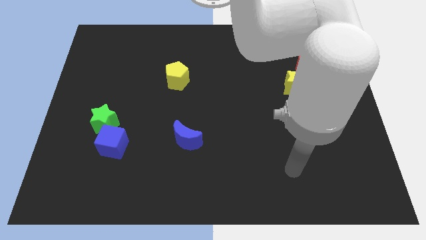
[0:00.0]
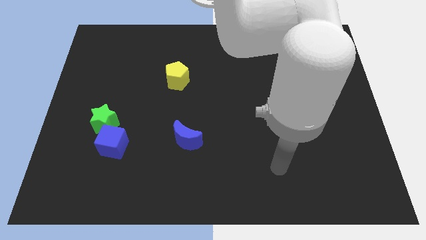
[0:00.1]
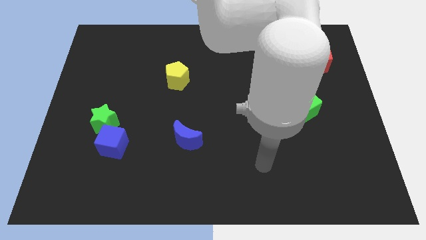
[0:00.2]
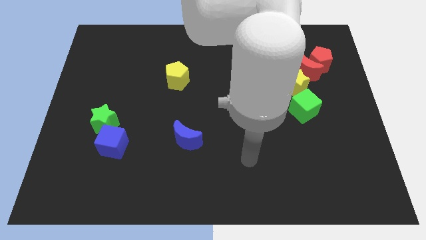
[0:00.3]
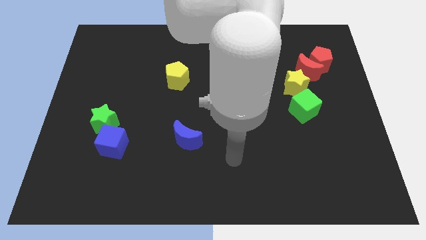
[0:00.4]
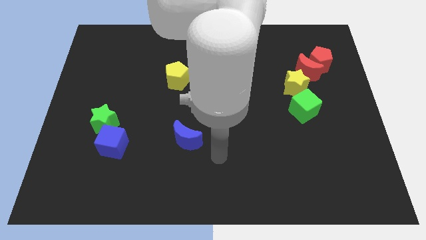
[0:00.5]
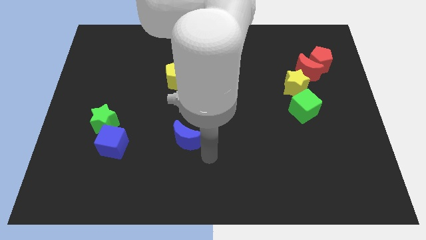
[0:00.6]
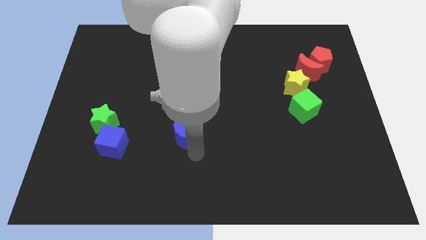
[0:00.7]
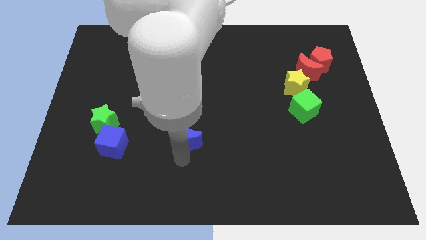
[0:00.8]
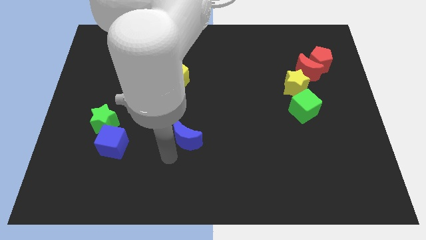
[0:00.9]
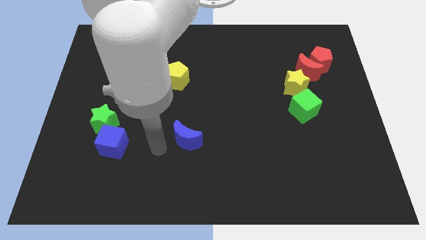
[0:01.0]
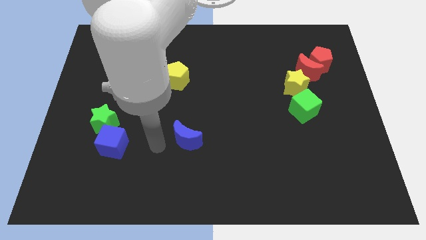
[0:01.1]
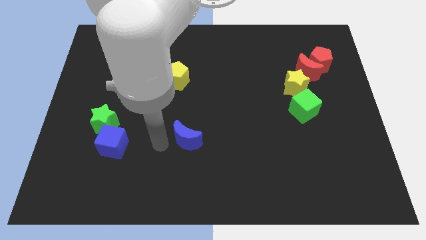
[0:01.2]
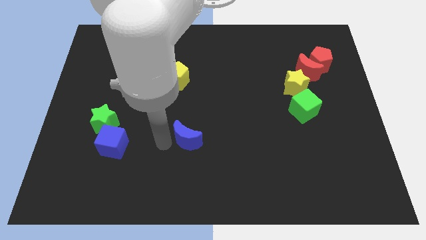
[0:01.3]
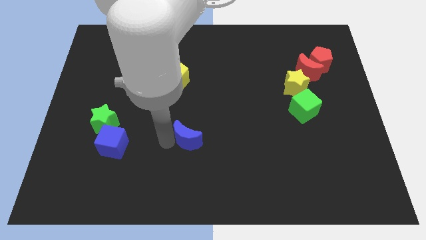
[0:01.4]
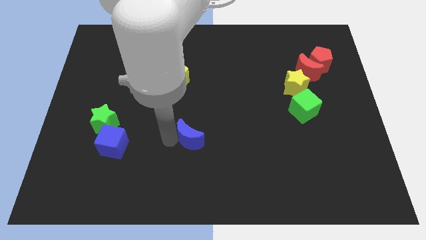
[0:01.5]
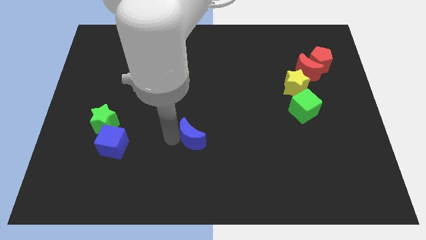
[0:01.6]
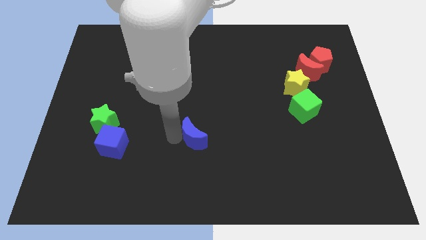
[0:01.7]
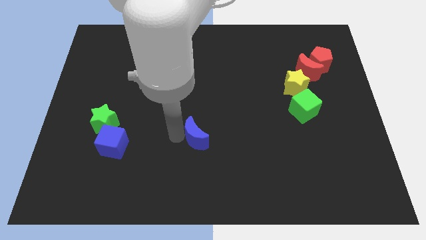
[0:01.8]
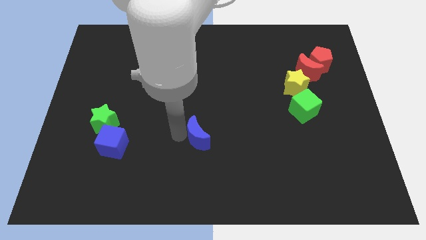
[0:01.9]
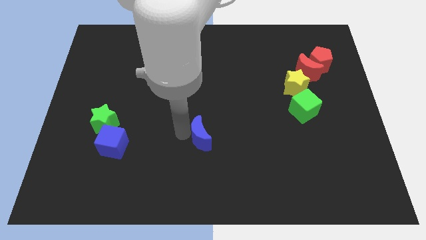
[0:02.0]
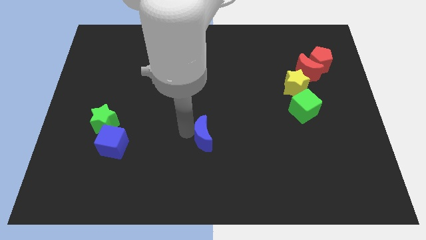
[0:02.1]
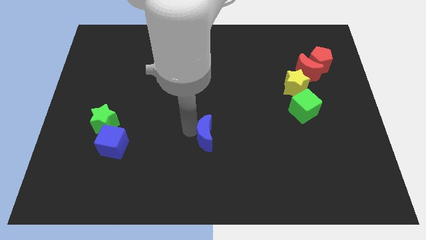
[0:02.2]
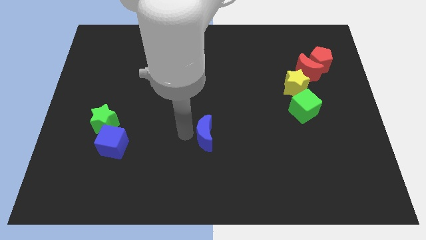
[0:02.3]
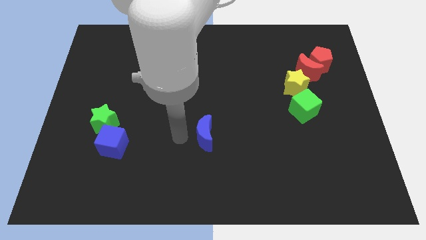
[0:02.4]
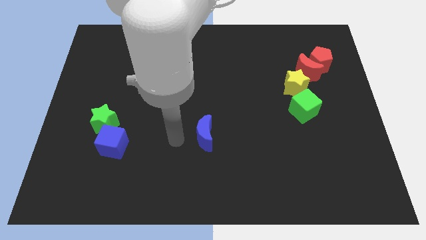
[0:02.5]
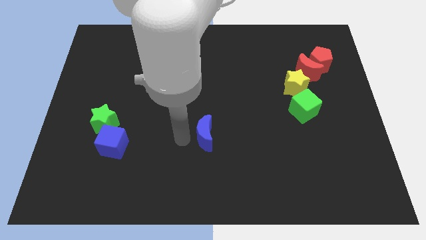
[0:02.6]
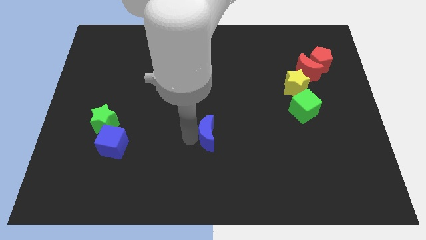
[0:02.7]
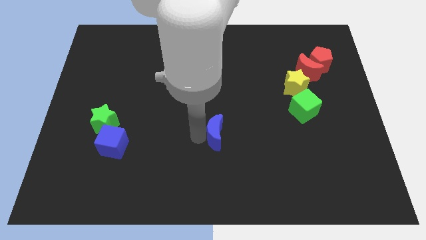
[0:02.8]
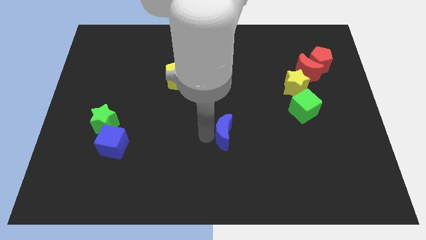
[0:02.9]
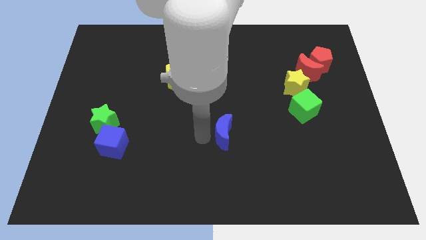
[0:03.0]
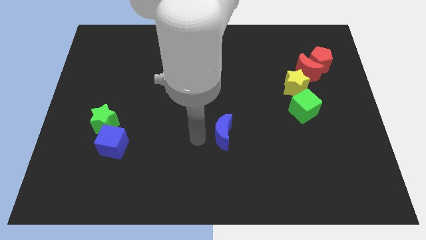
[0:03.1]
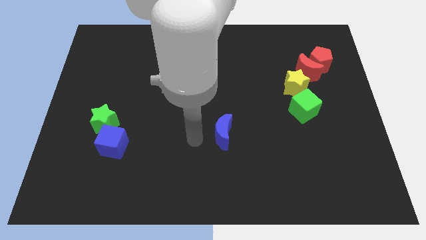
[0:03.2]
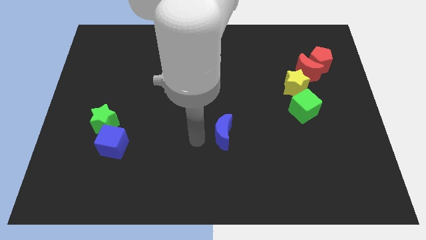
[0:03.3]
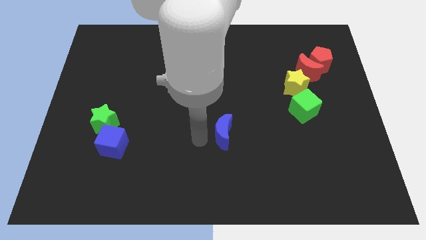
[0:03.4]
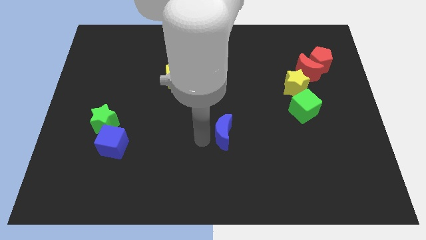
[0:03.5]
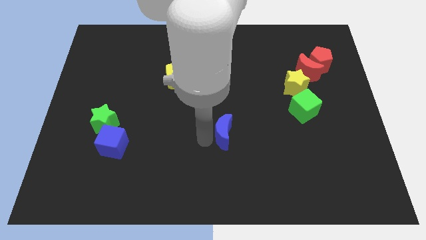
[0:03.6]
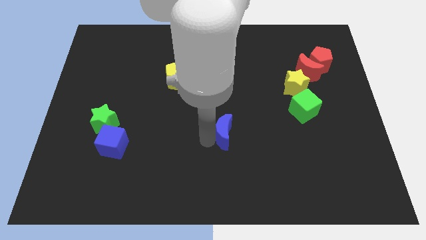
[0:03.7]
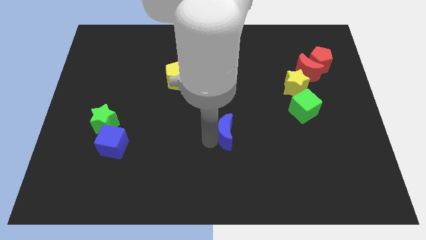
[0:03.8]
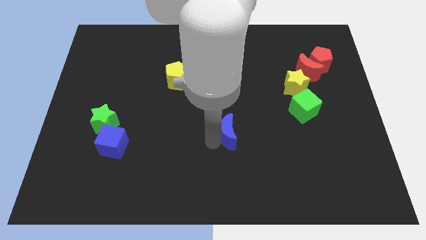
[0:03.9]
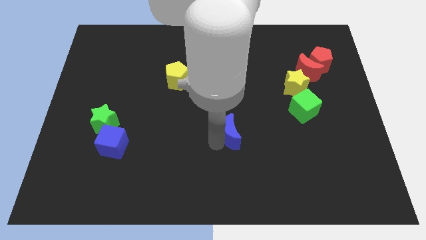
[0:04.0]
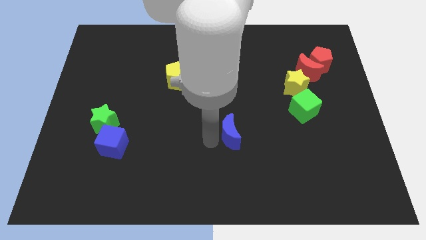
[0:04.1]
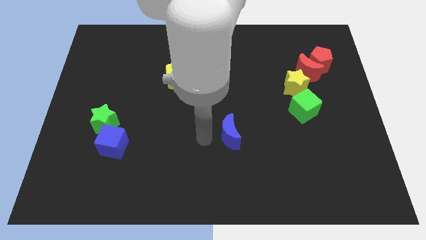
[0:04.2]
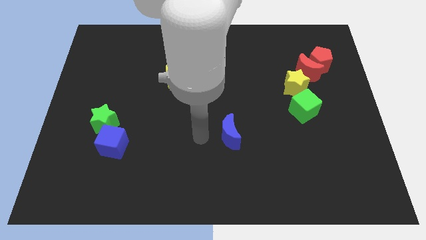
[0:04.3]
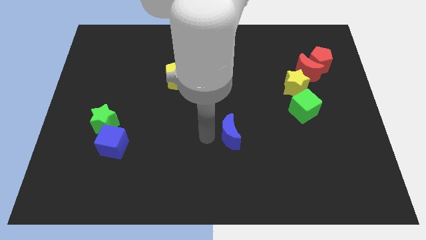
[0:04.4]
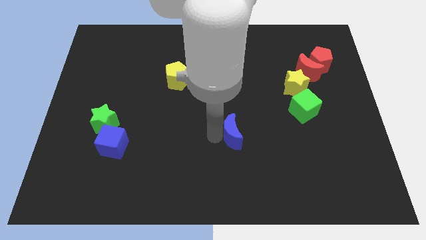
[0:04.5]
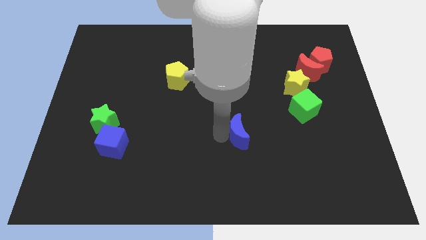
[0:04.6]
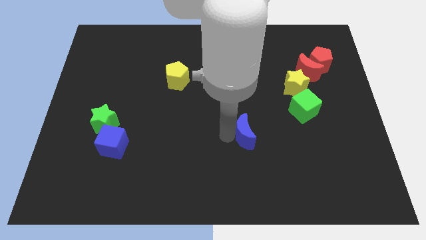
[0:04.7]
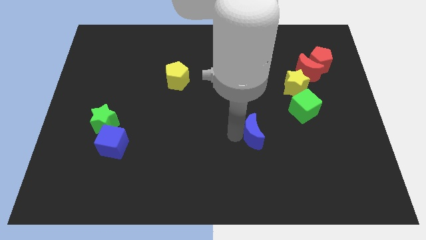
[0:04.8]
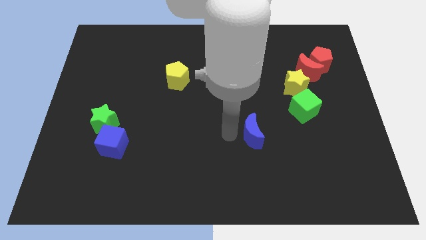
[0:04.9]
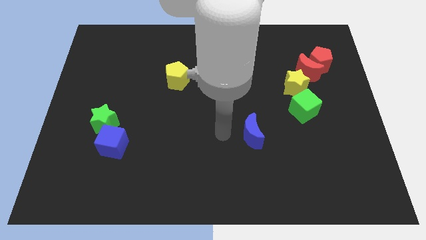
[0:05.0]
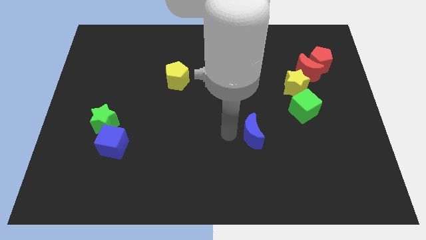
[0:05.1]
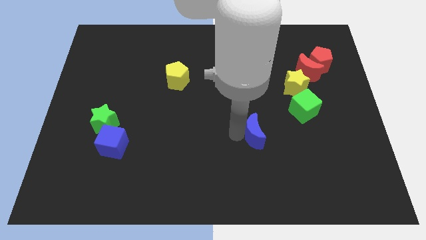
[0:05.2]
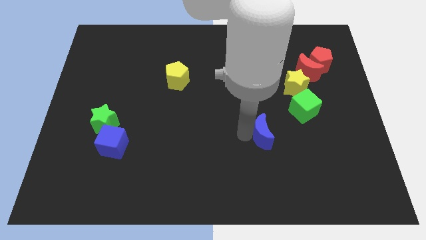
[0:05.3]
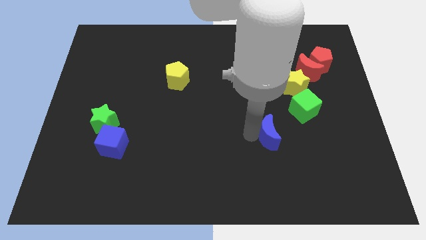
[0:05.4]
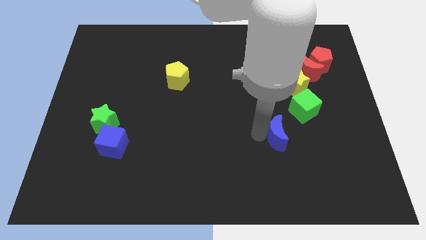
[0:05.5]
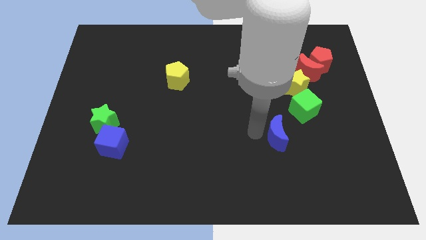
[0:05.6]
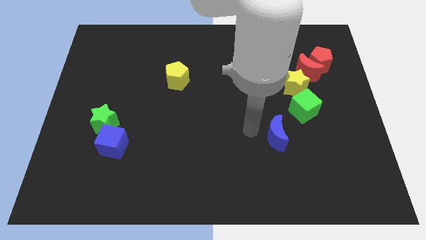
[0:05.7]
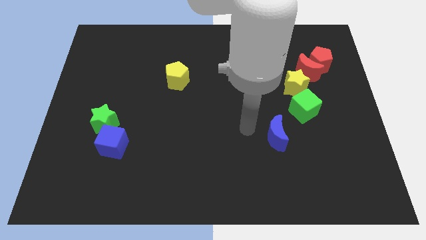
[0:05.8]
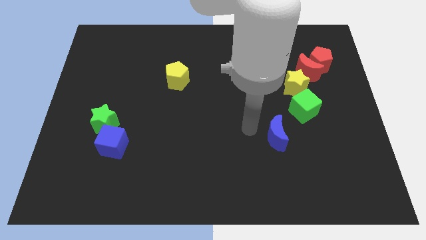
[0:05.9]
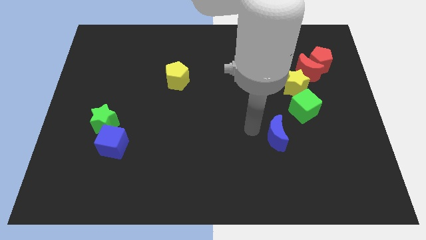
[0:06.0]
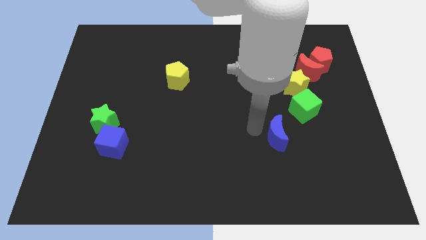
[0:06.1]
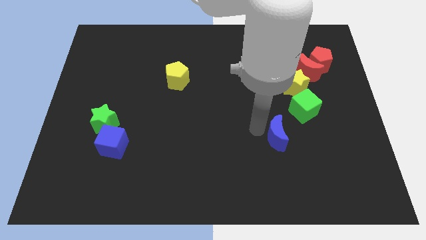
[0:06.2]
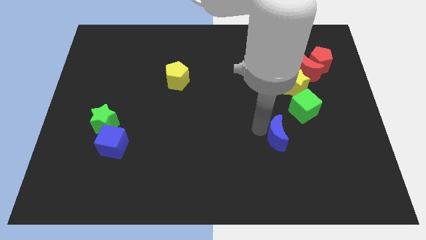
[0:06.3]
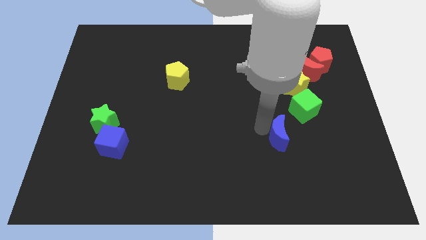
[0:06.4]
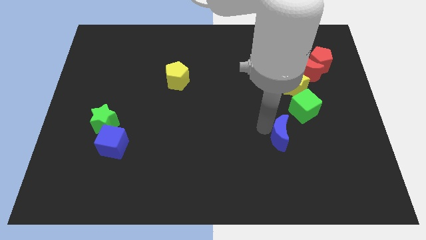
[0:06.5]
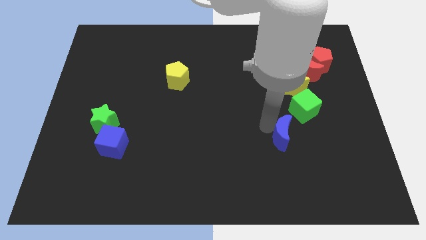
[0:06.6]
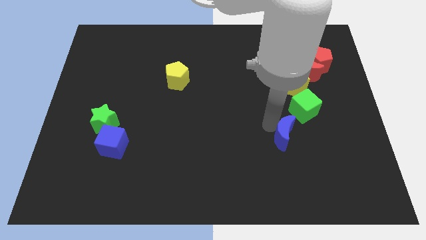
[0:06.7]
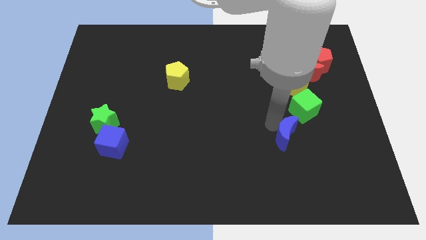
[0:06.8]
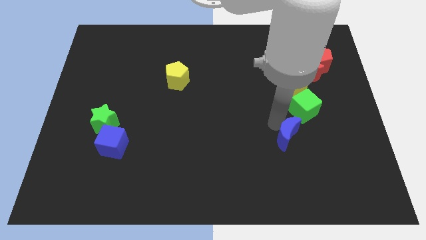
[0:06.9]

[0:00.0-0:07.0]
put the blue moon to the bottom of the green cube

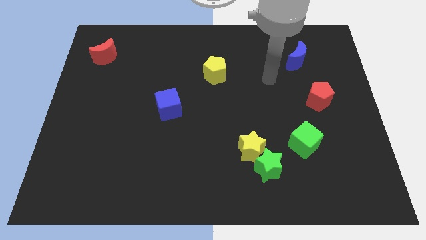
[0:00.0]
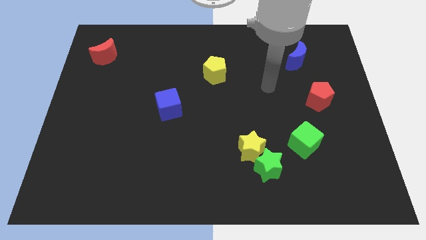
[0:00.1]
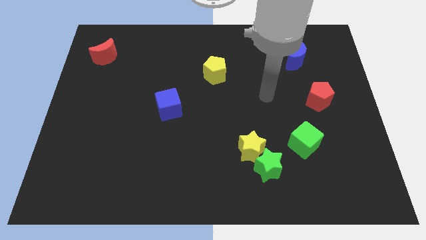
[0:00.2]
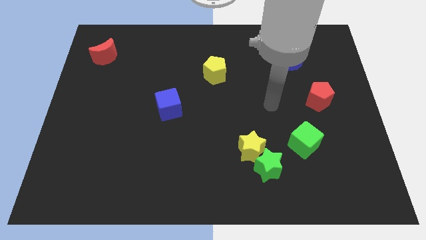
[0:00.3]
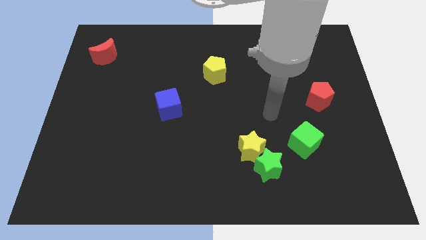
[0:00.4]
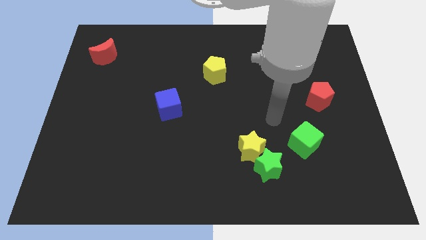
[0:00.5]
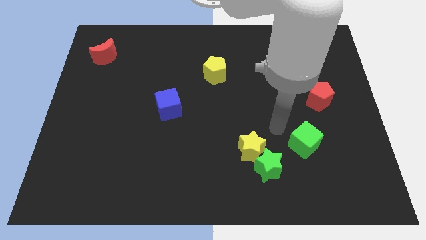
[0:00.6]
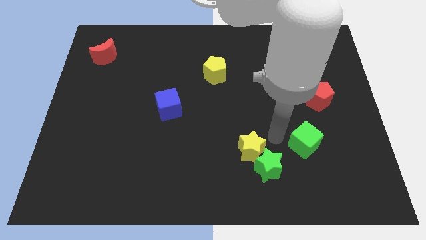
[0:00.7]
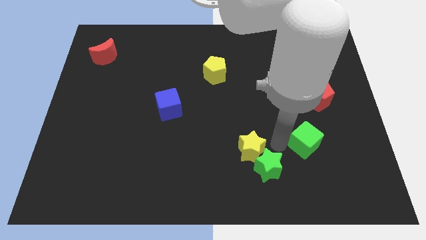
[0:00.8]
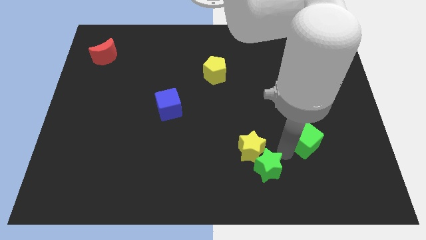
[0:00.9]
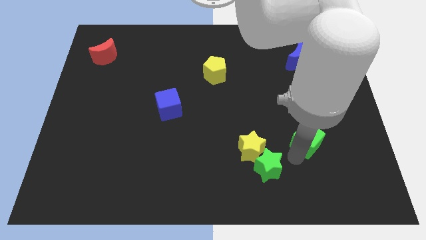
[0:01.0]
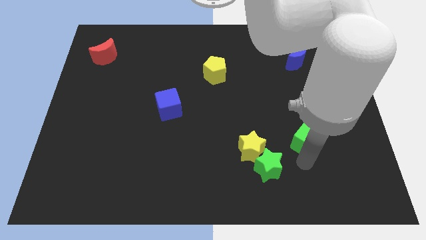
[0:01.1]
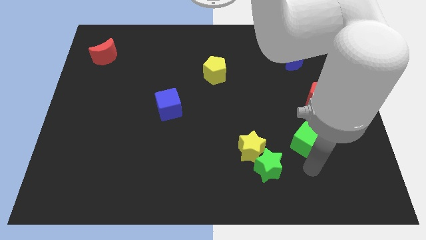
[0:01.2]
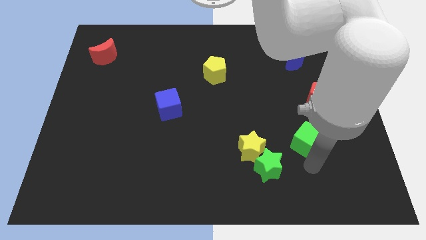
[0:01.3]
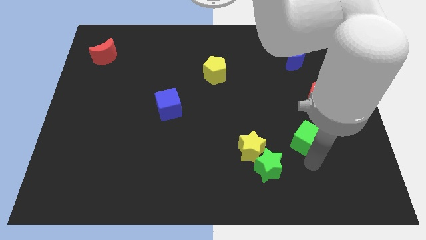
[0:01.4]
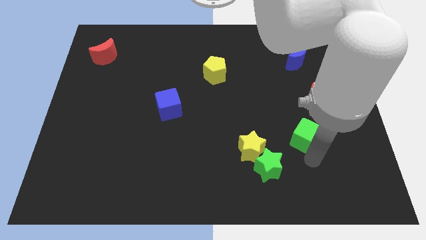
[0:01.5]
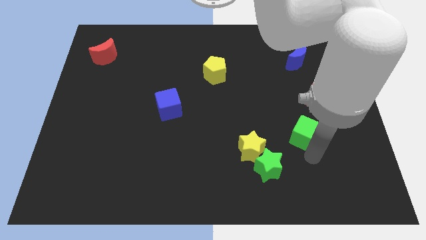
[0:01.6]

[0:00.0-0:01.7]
move the green cube diagonally down and to the left of the red pentagon
